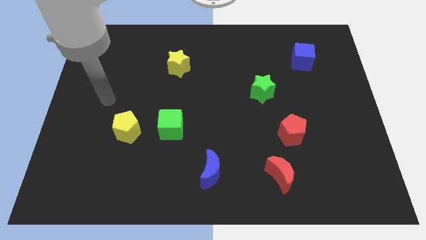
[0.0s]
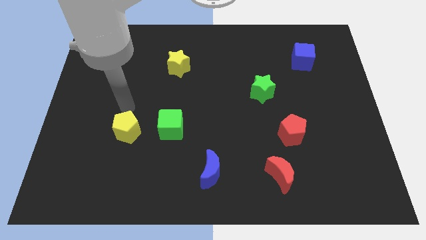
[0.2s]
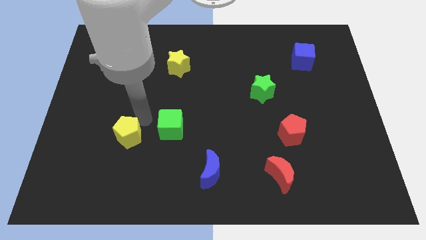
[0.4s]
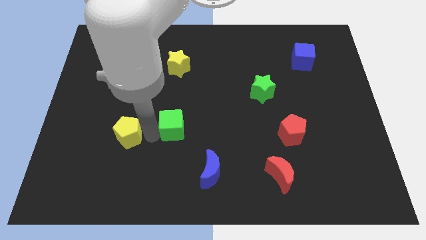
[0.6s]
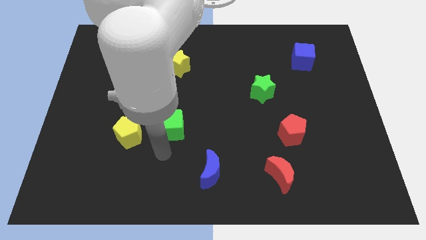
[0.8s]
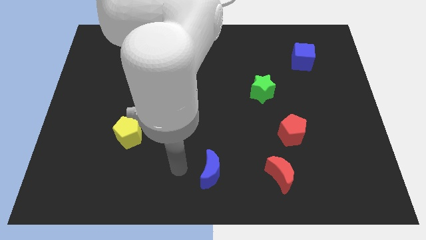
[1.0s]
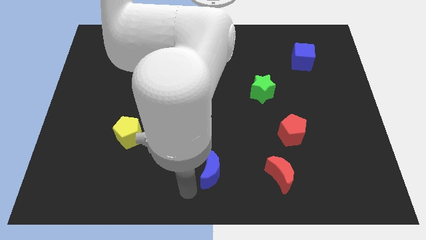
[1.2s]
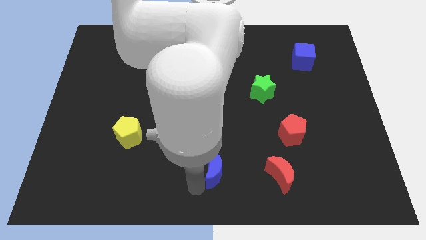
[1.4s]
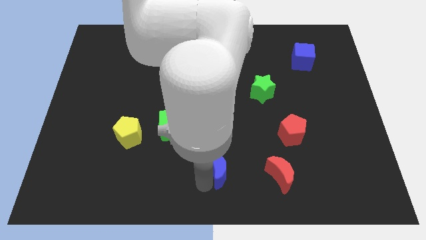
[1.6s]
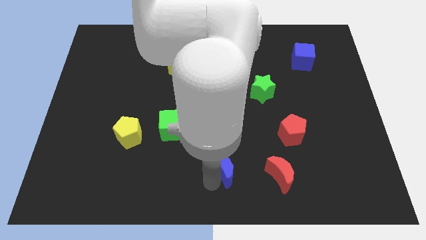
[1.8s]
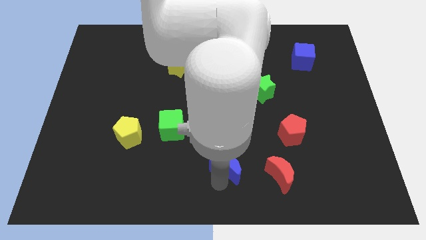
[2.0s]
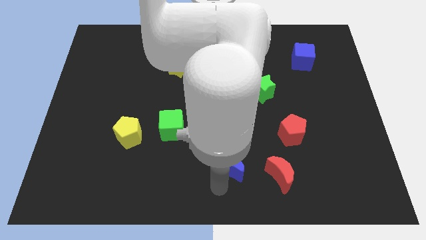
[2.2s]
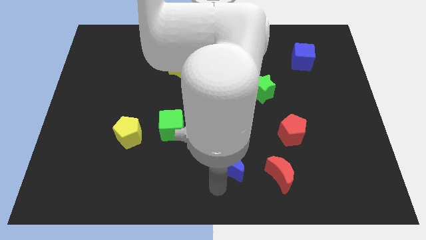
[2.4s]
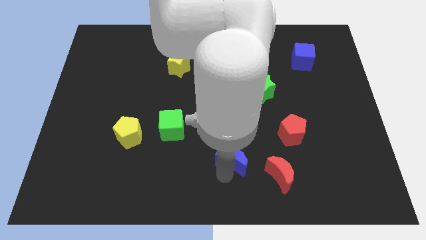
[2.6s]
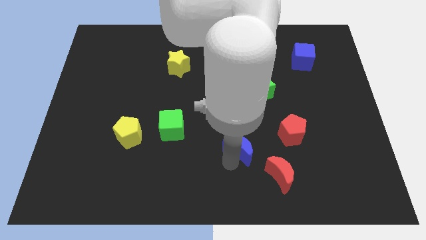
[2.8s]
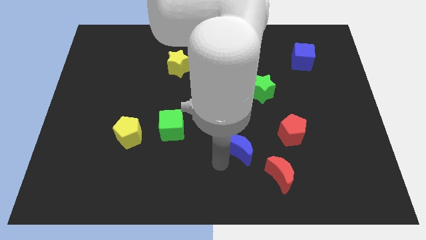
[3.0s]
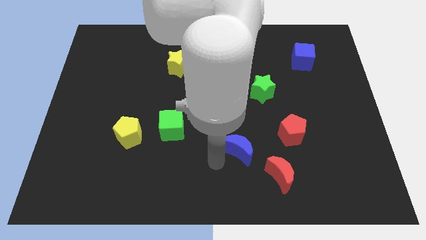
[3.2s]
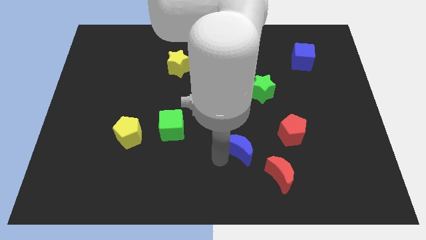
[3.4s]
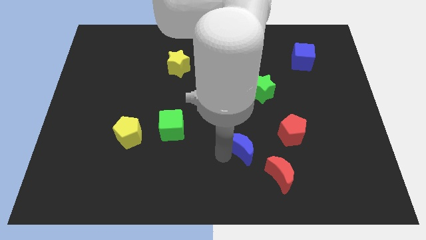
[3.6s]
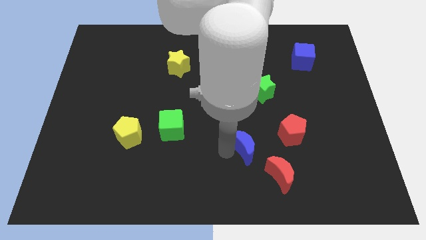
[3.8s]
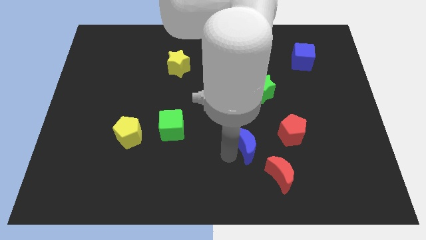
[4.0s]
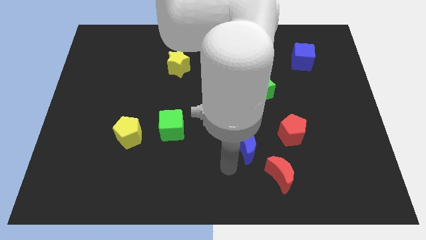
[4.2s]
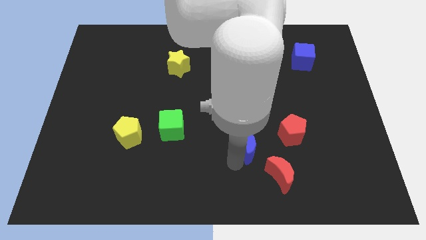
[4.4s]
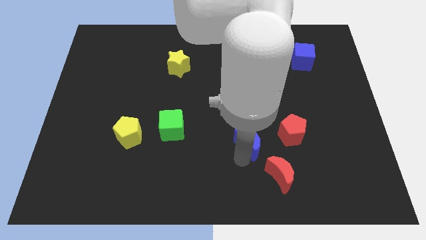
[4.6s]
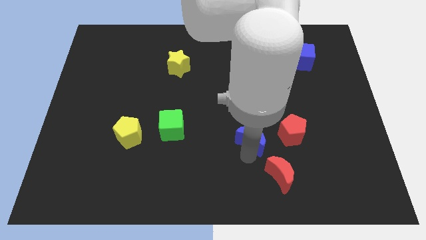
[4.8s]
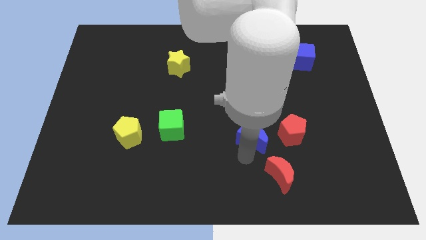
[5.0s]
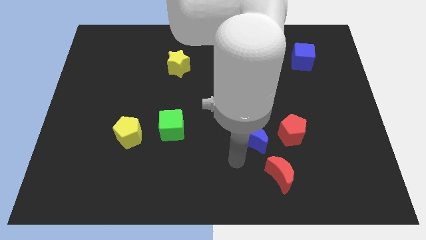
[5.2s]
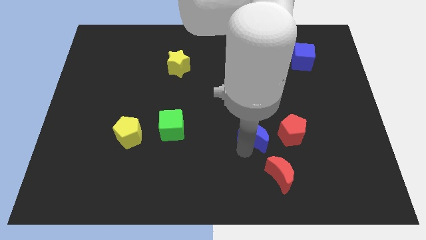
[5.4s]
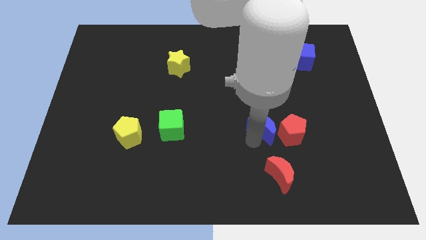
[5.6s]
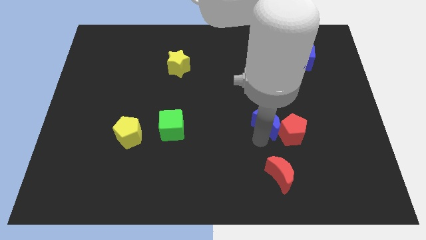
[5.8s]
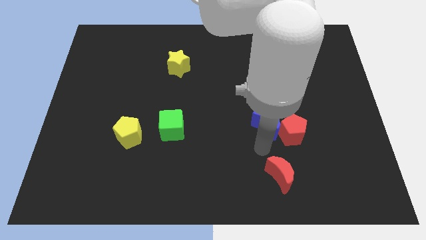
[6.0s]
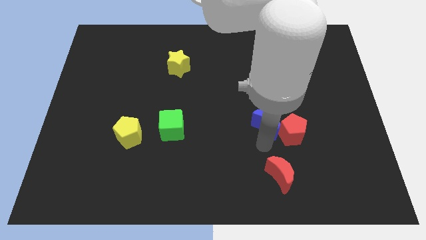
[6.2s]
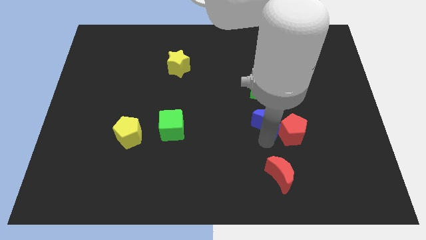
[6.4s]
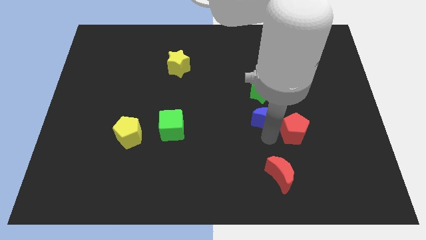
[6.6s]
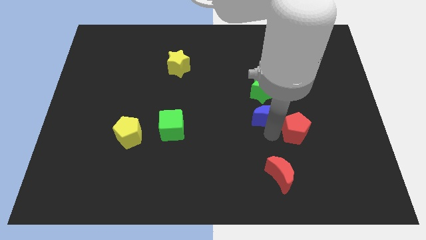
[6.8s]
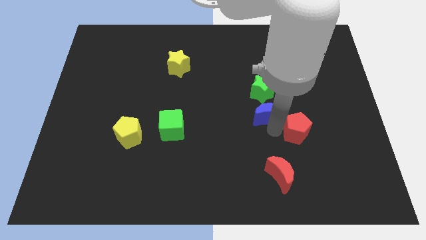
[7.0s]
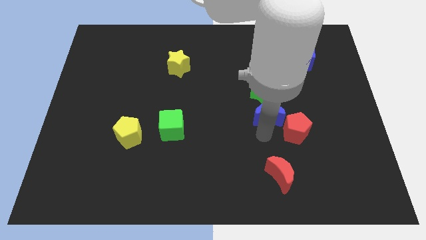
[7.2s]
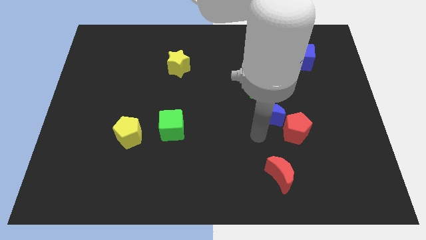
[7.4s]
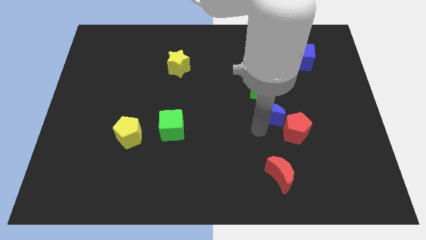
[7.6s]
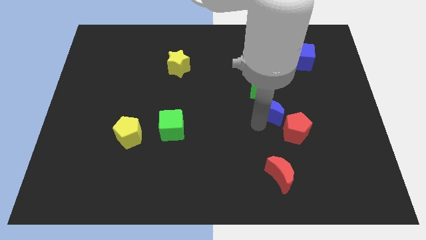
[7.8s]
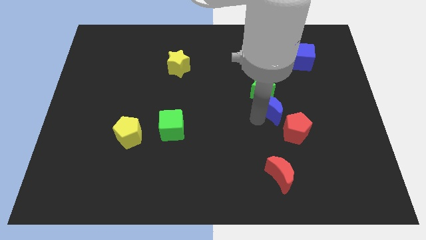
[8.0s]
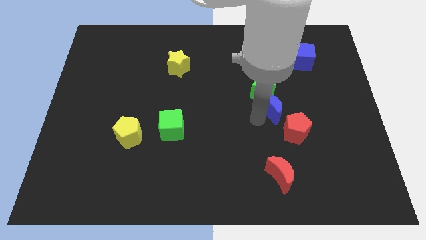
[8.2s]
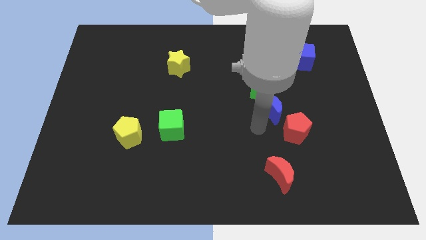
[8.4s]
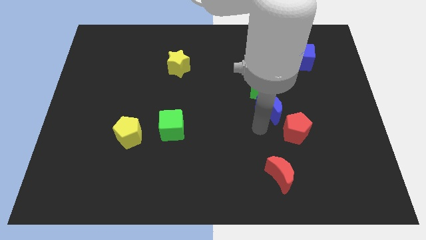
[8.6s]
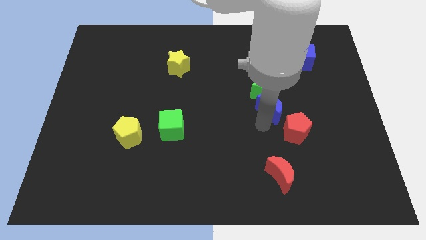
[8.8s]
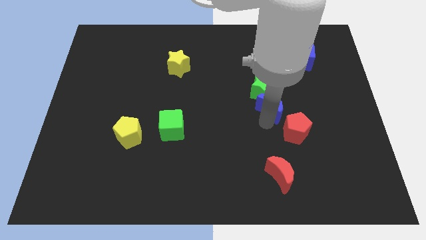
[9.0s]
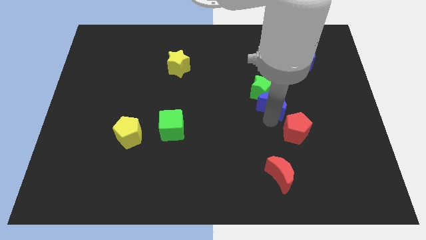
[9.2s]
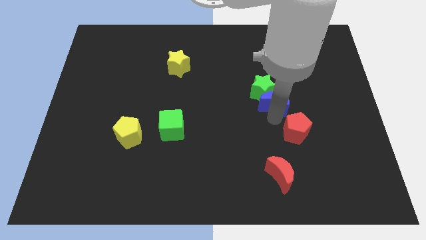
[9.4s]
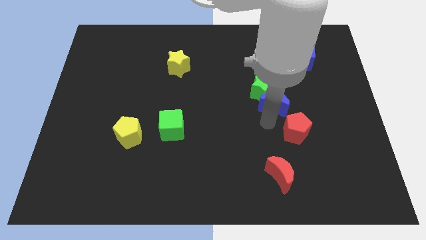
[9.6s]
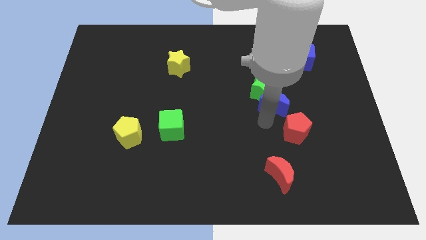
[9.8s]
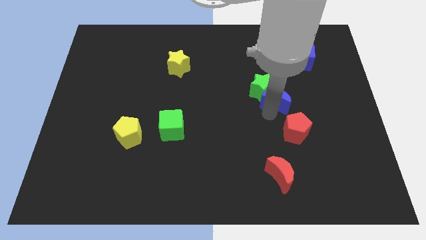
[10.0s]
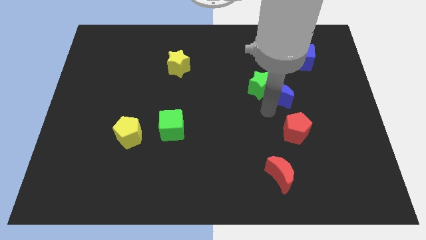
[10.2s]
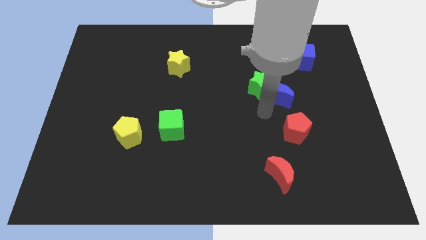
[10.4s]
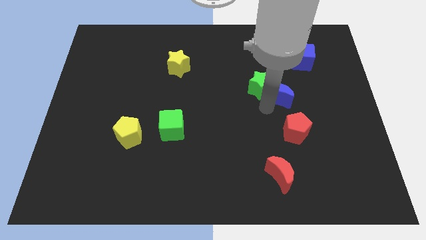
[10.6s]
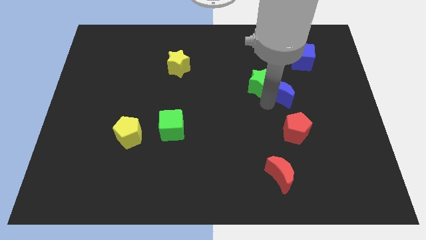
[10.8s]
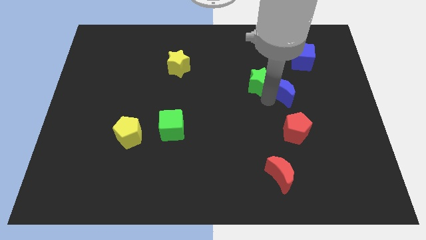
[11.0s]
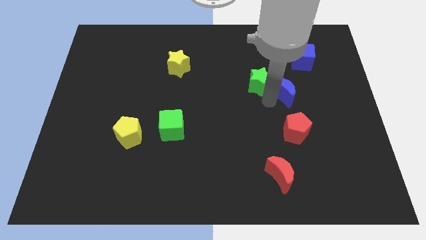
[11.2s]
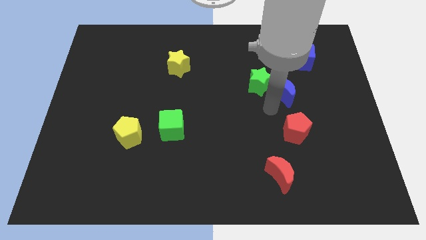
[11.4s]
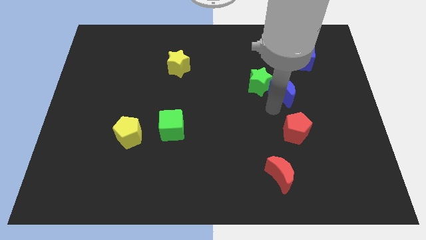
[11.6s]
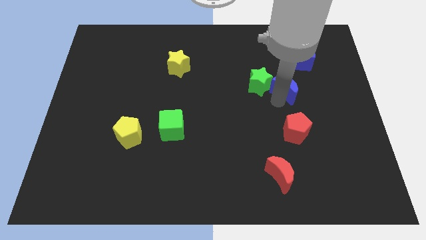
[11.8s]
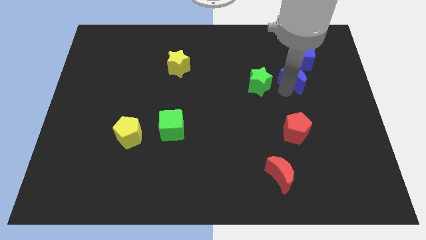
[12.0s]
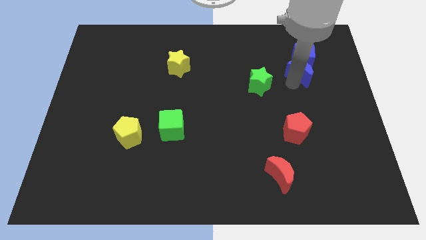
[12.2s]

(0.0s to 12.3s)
slide the blue moon towards the blue cube

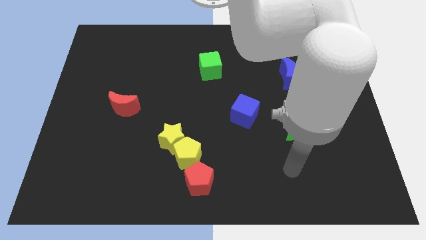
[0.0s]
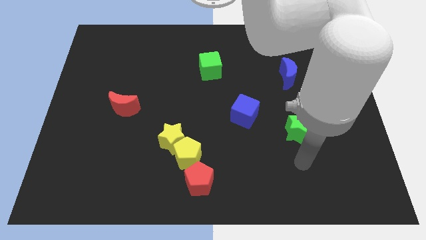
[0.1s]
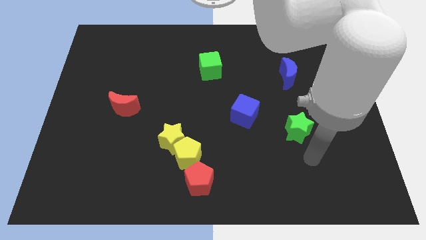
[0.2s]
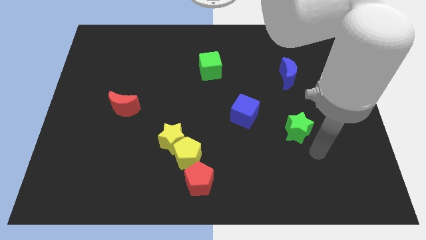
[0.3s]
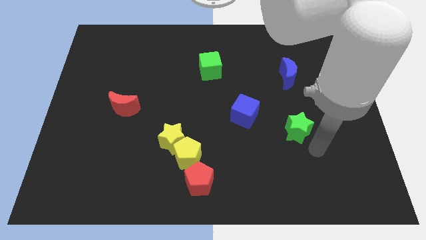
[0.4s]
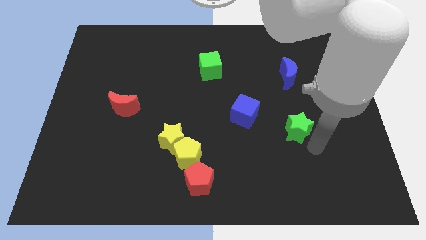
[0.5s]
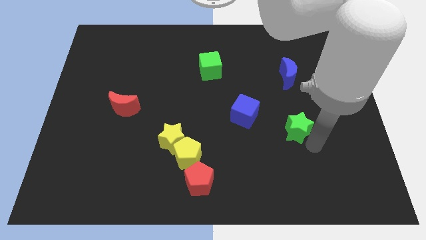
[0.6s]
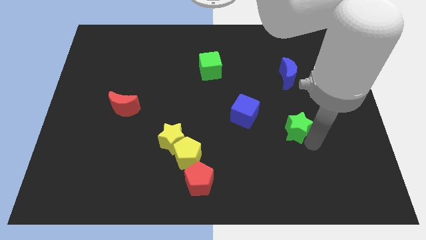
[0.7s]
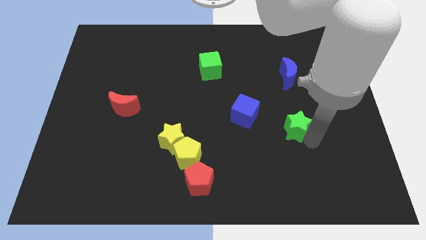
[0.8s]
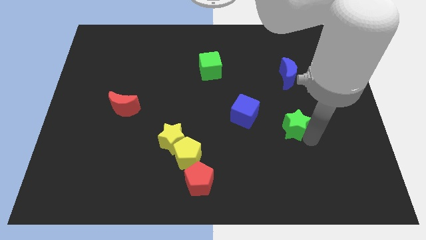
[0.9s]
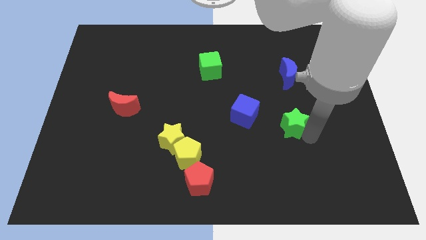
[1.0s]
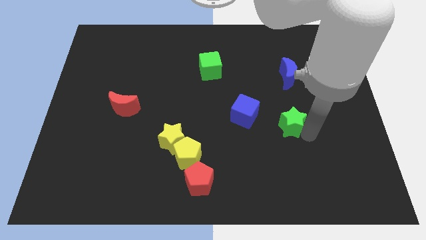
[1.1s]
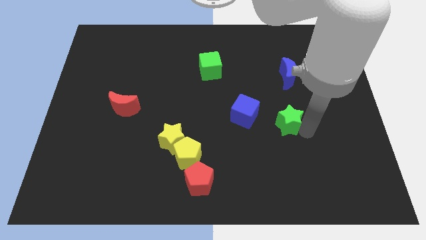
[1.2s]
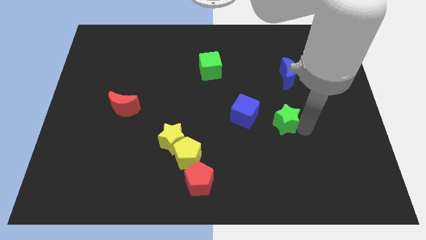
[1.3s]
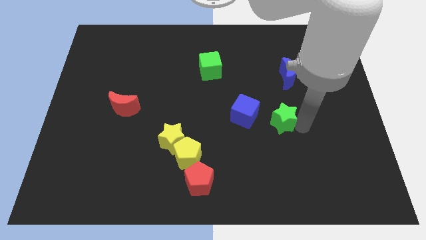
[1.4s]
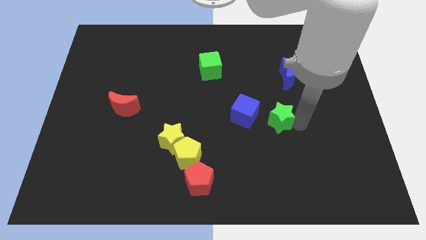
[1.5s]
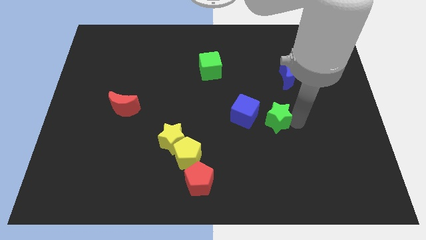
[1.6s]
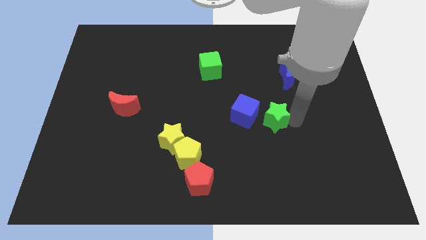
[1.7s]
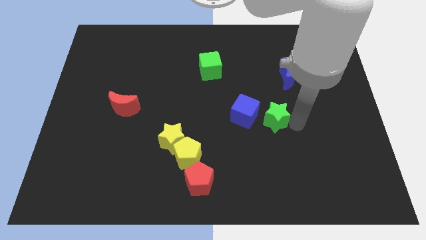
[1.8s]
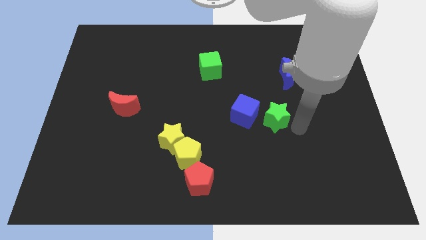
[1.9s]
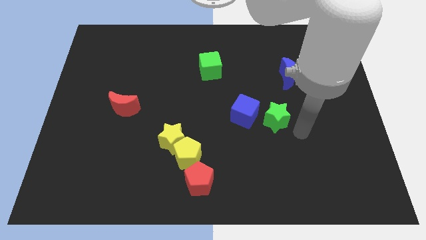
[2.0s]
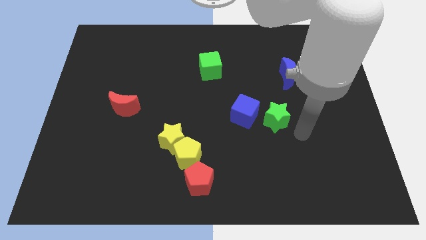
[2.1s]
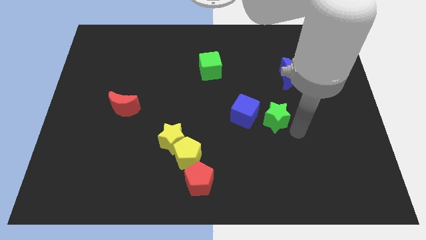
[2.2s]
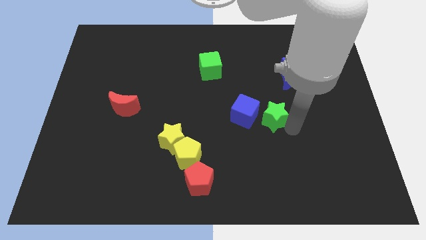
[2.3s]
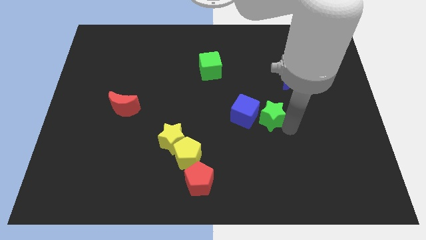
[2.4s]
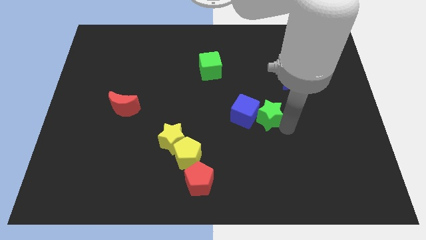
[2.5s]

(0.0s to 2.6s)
put the green star close to the blue cube
